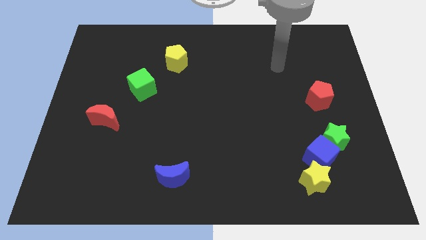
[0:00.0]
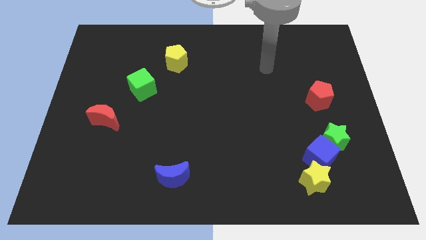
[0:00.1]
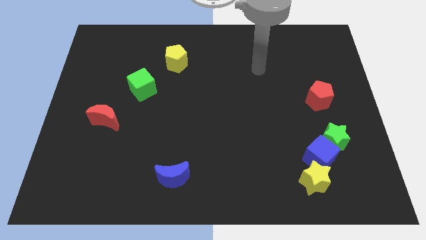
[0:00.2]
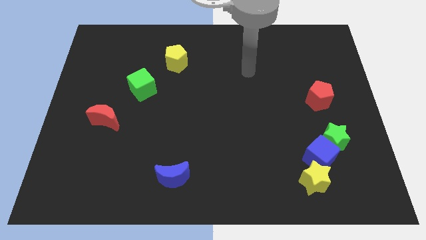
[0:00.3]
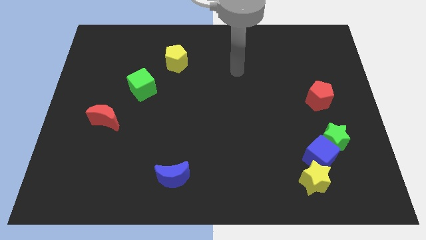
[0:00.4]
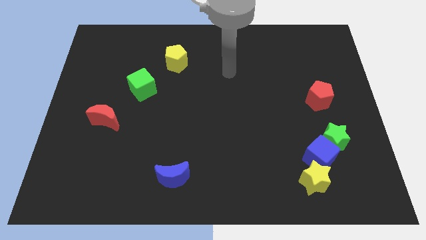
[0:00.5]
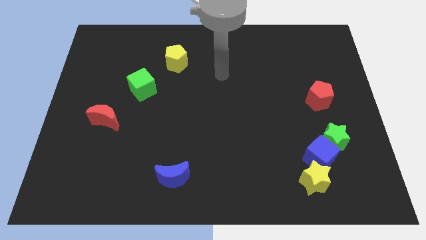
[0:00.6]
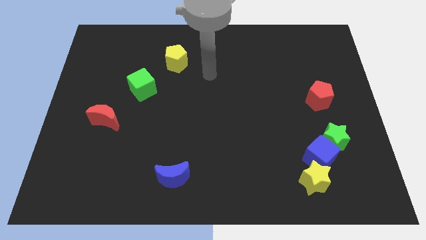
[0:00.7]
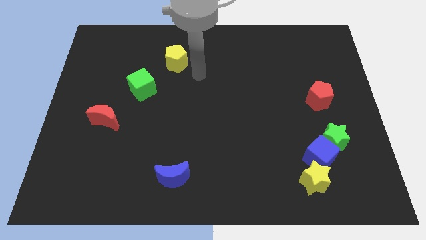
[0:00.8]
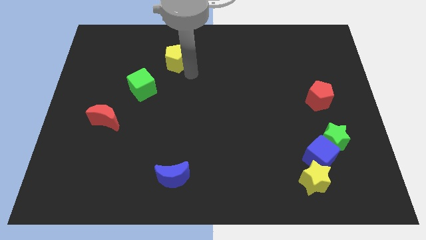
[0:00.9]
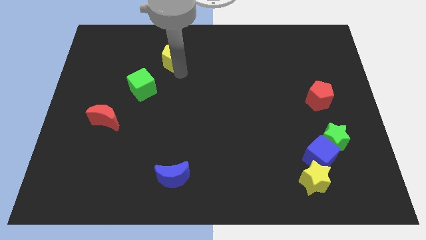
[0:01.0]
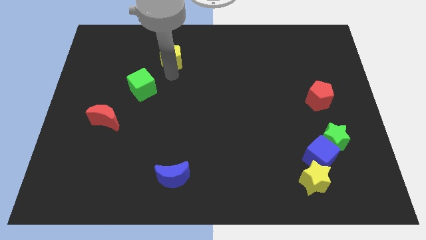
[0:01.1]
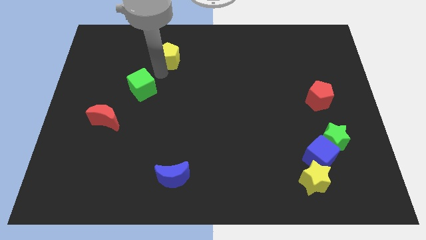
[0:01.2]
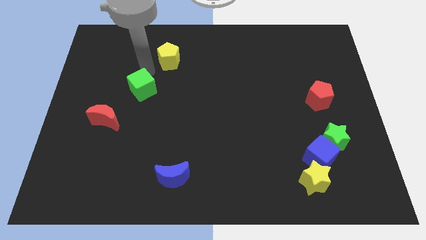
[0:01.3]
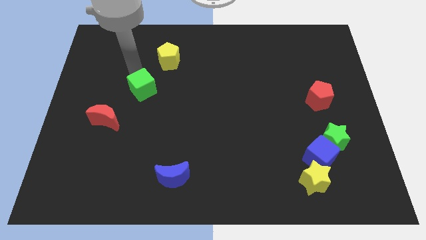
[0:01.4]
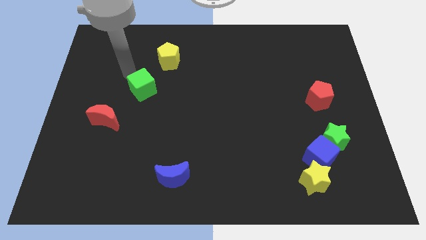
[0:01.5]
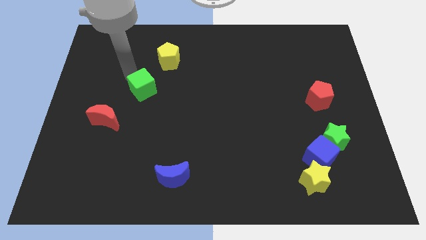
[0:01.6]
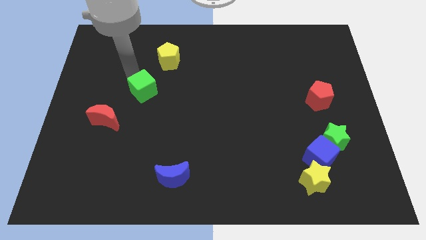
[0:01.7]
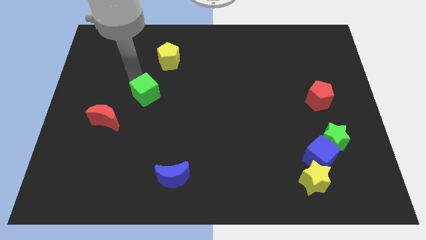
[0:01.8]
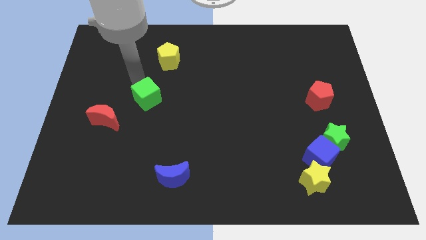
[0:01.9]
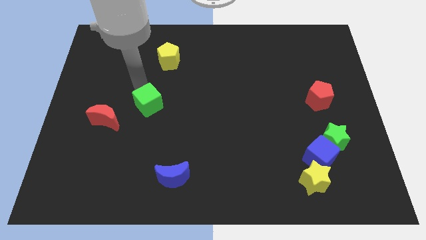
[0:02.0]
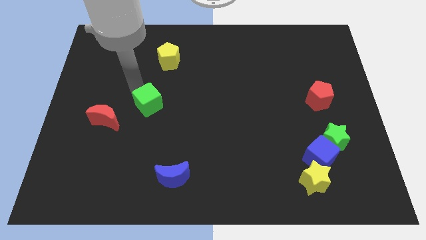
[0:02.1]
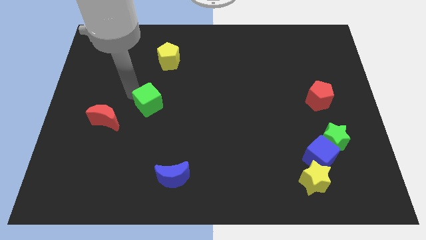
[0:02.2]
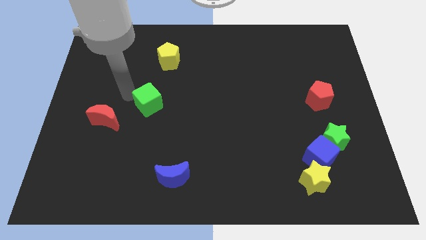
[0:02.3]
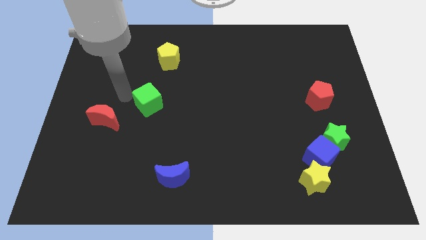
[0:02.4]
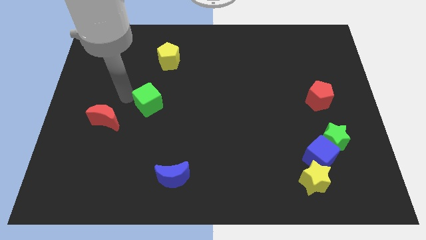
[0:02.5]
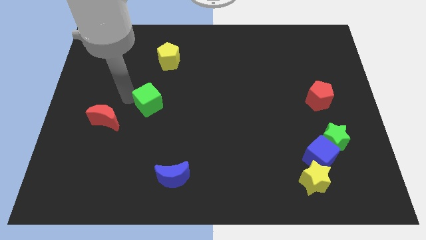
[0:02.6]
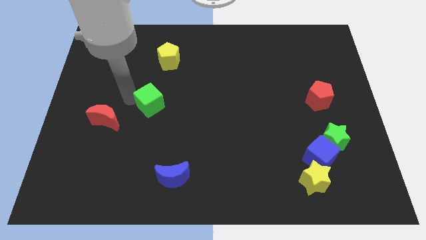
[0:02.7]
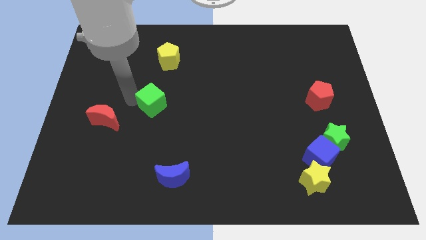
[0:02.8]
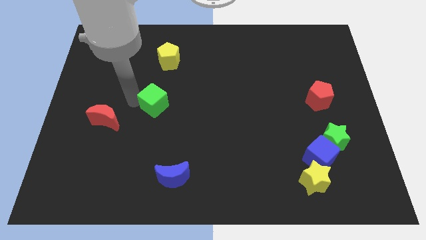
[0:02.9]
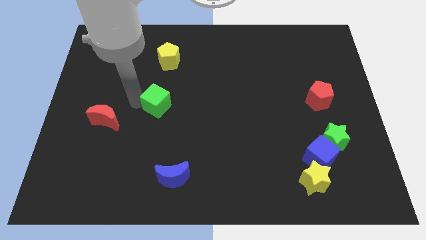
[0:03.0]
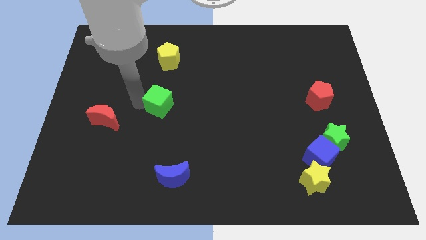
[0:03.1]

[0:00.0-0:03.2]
slightly push the green cube downwards and then to the right

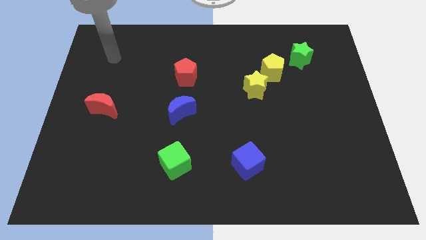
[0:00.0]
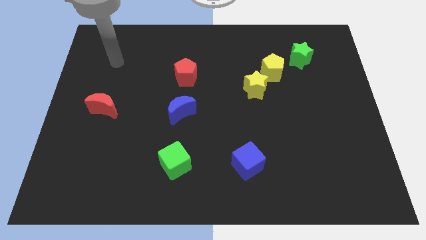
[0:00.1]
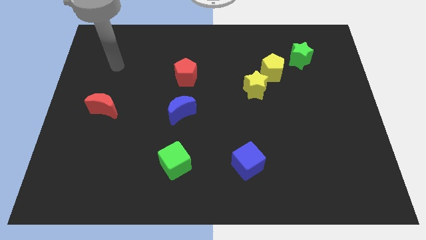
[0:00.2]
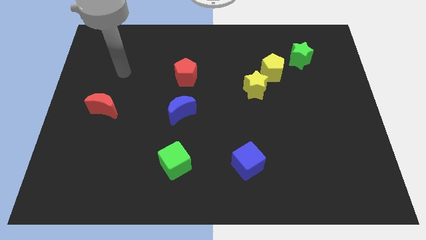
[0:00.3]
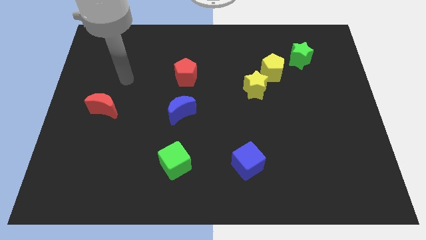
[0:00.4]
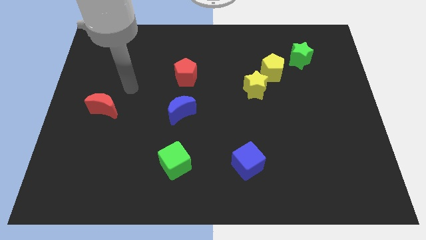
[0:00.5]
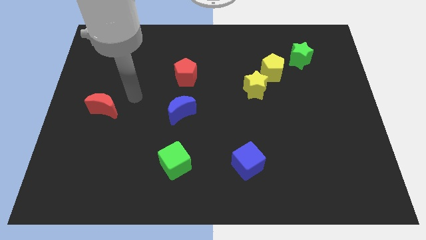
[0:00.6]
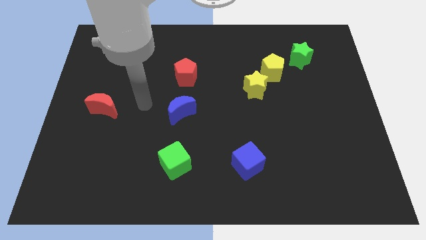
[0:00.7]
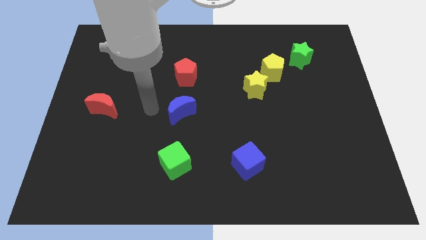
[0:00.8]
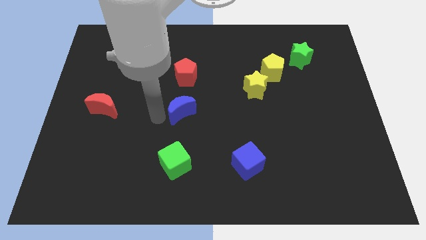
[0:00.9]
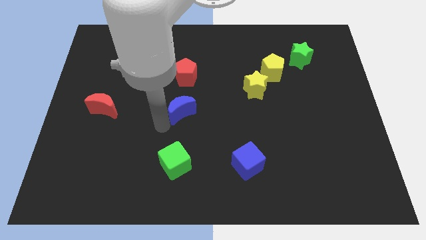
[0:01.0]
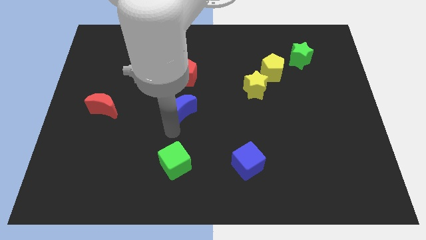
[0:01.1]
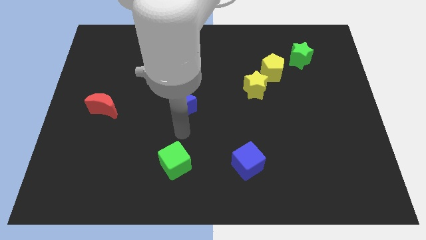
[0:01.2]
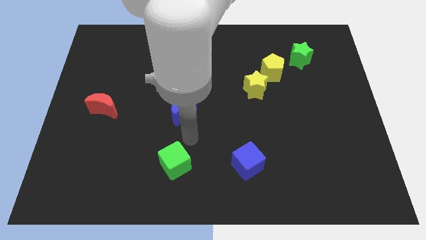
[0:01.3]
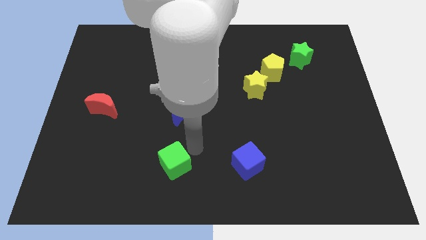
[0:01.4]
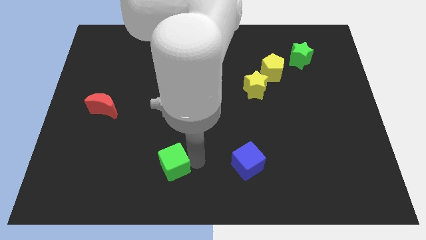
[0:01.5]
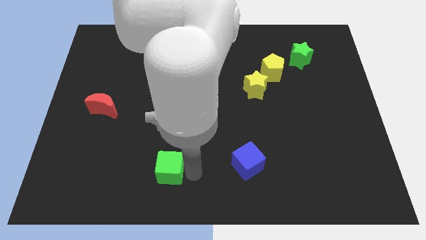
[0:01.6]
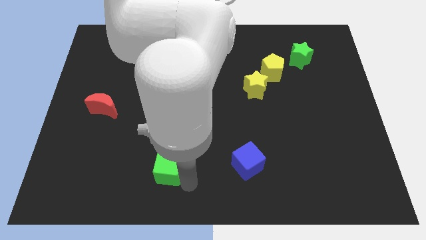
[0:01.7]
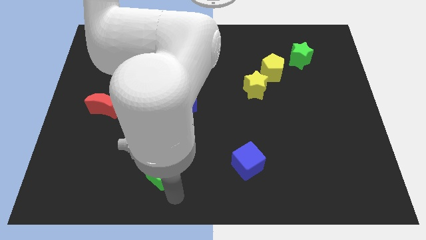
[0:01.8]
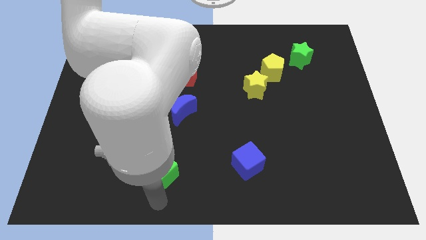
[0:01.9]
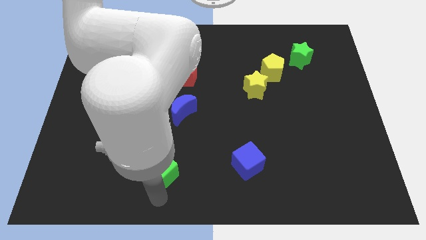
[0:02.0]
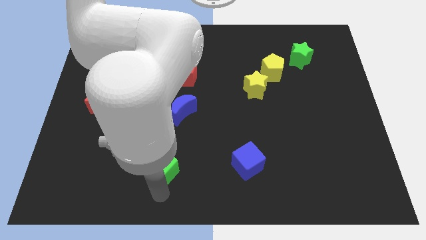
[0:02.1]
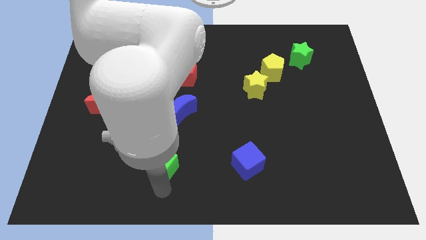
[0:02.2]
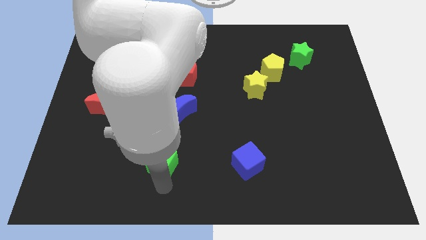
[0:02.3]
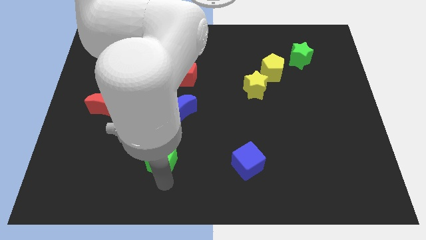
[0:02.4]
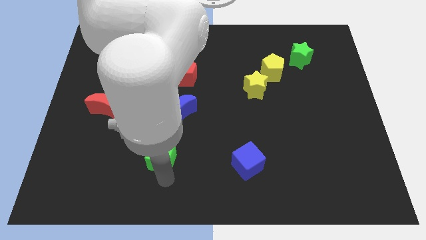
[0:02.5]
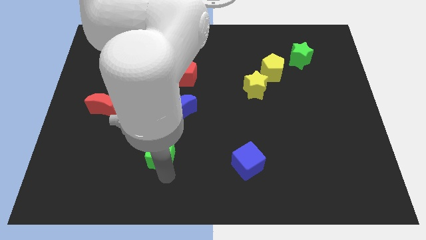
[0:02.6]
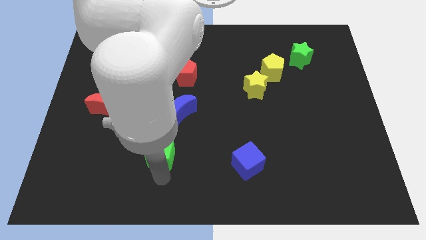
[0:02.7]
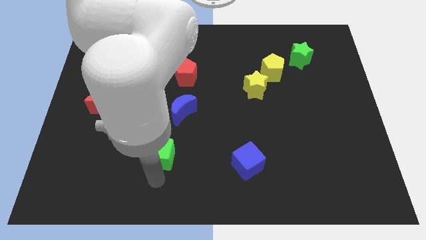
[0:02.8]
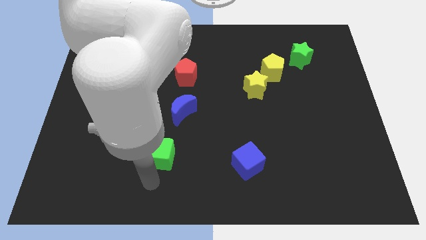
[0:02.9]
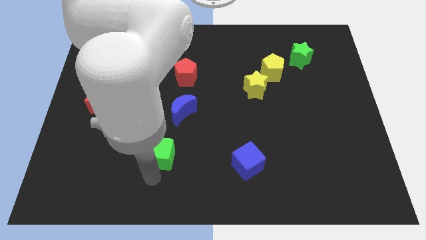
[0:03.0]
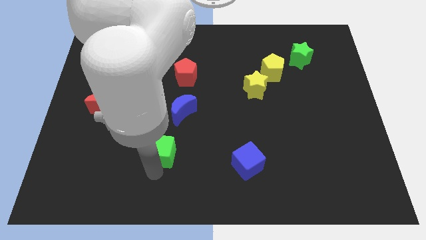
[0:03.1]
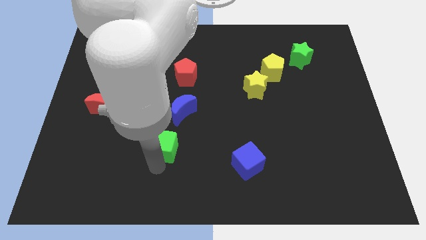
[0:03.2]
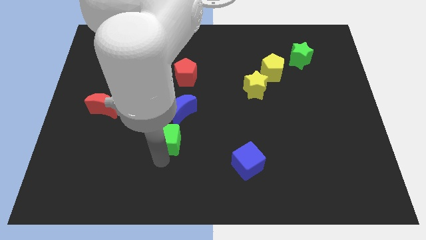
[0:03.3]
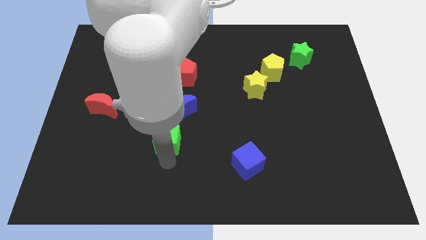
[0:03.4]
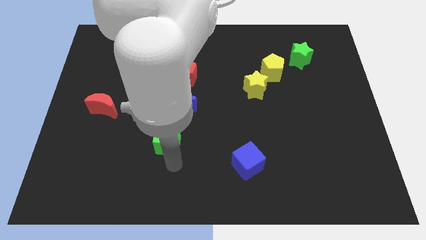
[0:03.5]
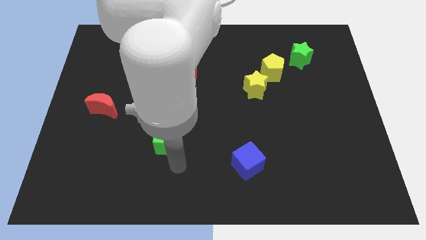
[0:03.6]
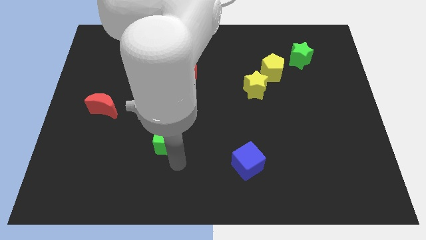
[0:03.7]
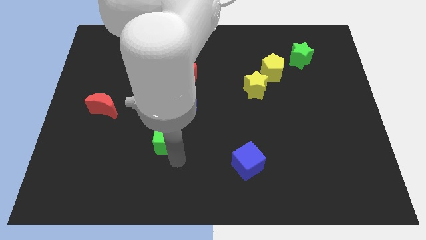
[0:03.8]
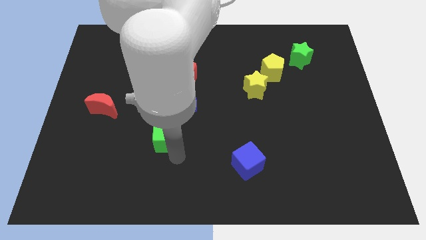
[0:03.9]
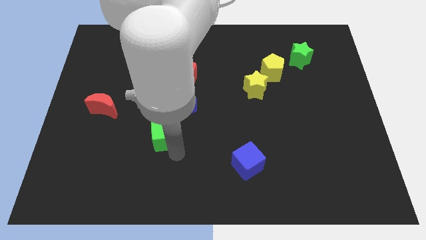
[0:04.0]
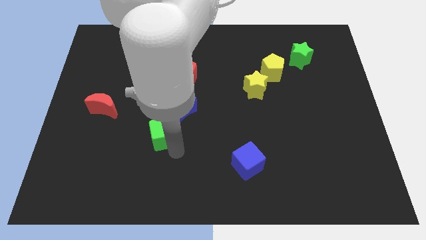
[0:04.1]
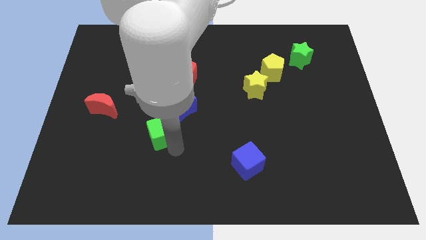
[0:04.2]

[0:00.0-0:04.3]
slightly slide the green cube up

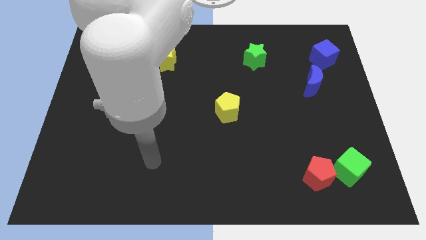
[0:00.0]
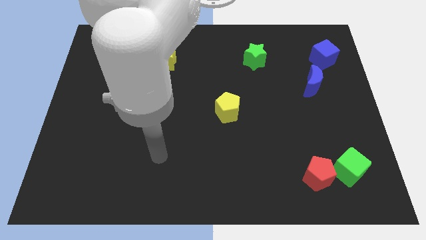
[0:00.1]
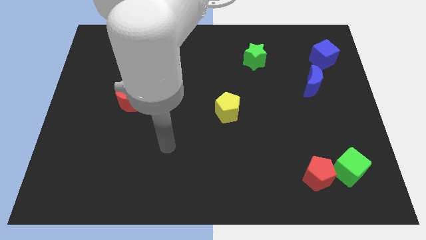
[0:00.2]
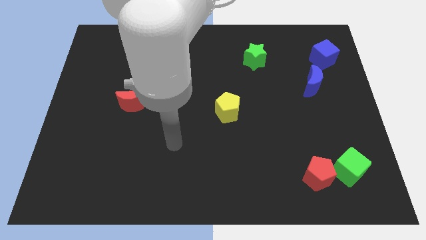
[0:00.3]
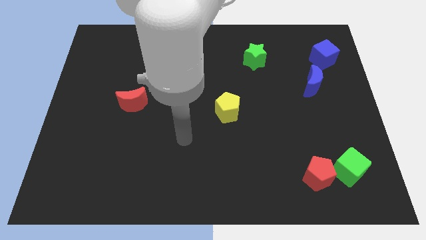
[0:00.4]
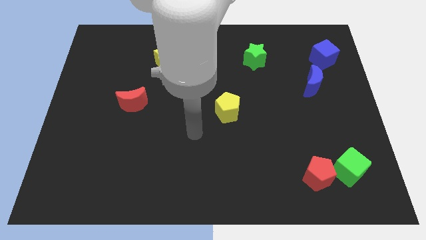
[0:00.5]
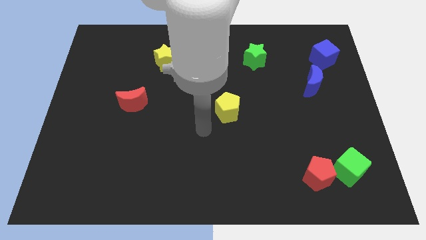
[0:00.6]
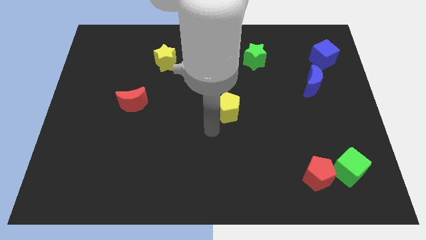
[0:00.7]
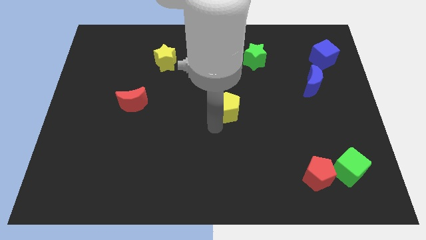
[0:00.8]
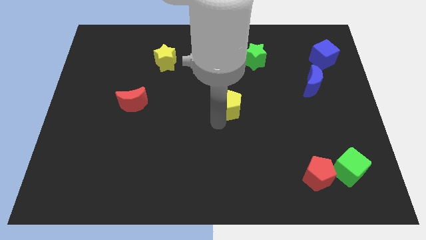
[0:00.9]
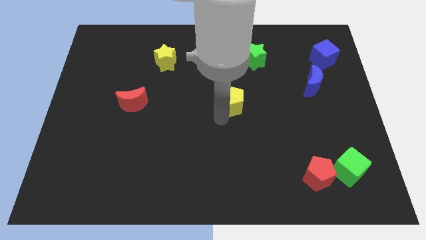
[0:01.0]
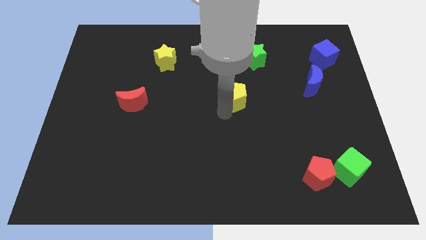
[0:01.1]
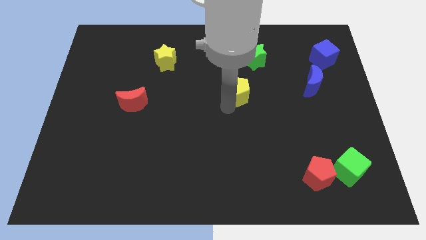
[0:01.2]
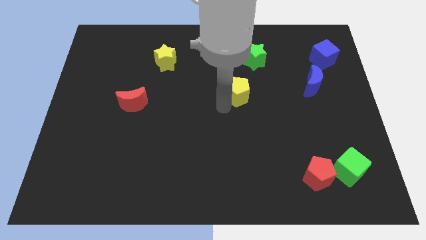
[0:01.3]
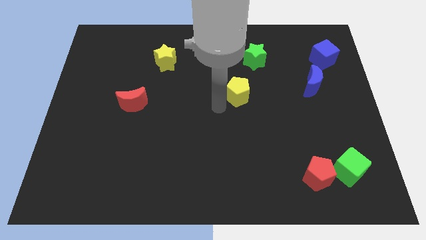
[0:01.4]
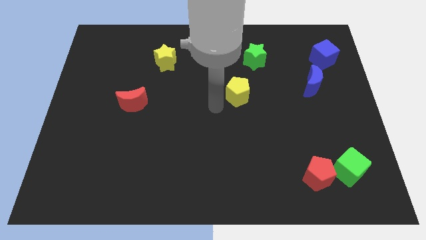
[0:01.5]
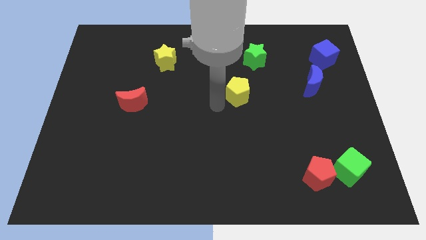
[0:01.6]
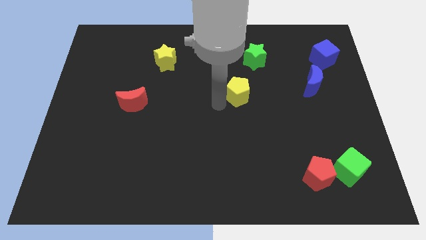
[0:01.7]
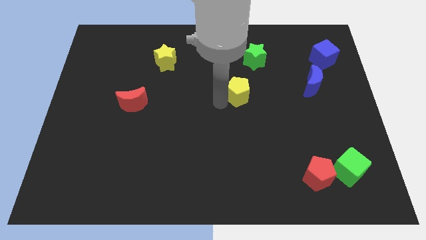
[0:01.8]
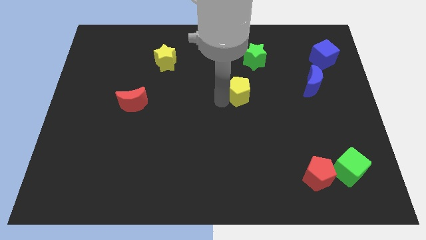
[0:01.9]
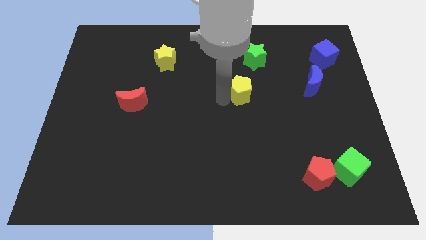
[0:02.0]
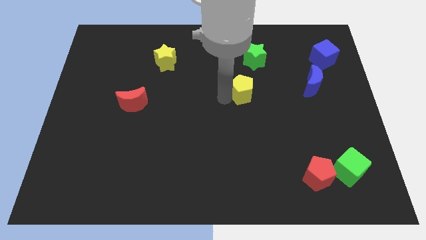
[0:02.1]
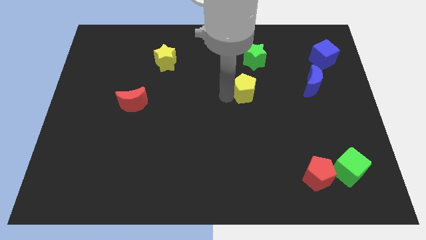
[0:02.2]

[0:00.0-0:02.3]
slide the yellow pentagon upwards and right a little
